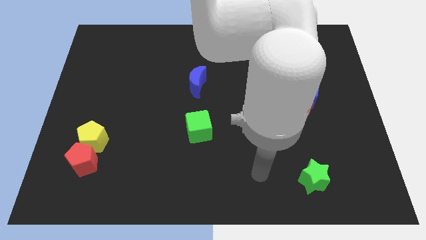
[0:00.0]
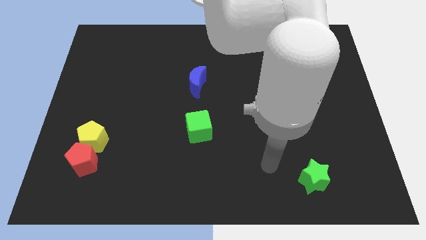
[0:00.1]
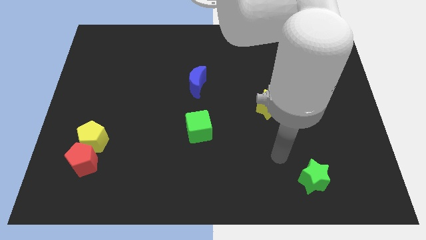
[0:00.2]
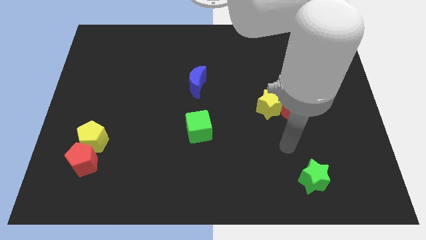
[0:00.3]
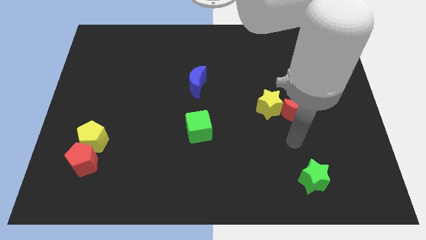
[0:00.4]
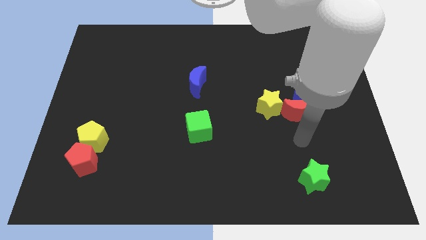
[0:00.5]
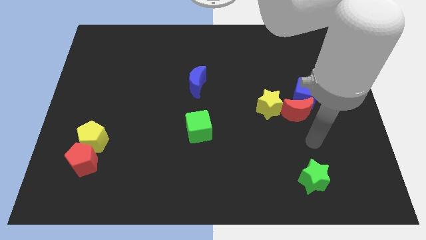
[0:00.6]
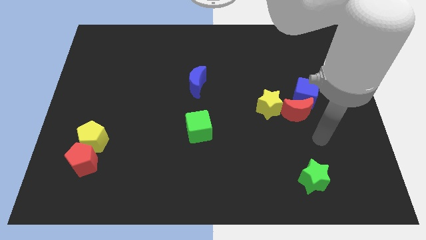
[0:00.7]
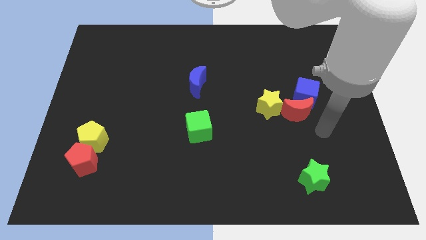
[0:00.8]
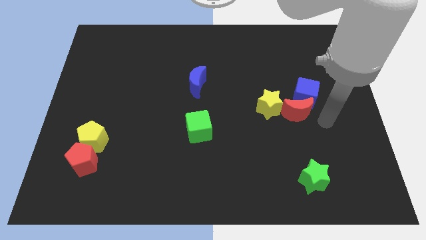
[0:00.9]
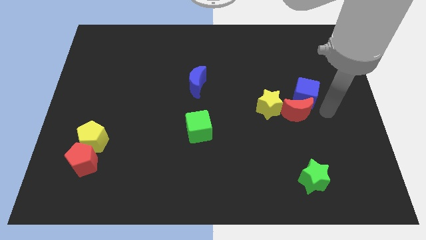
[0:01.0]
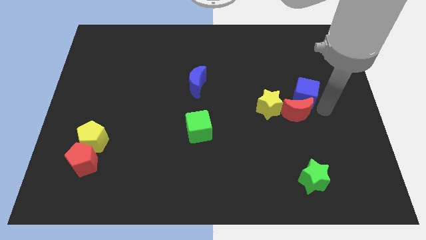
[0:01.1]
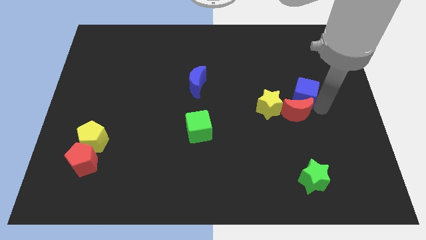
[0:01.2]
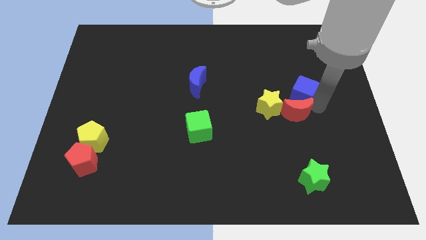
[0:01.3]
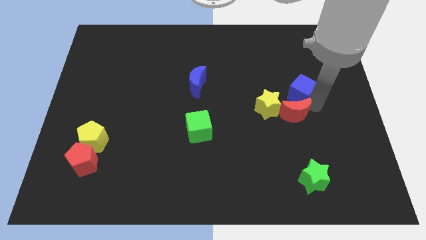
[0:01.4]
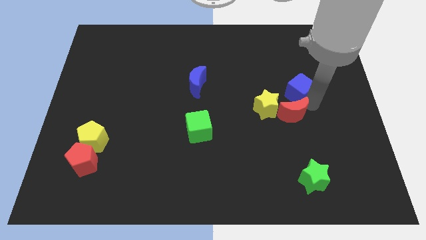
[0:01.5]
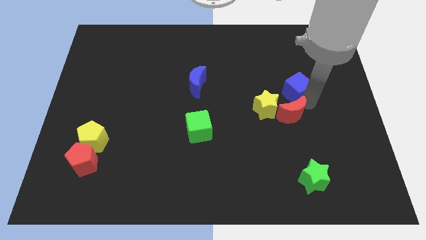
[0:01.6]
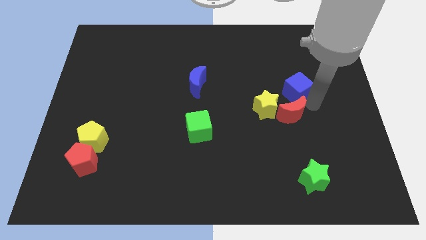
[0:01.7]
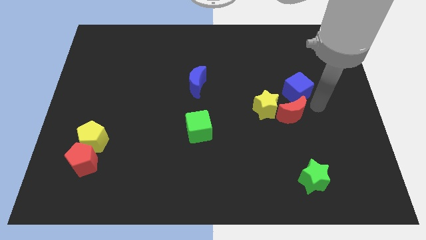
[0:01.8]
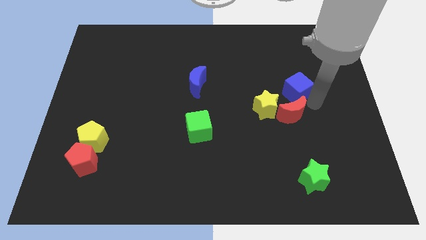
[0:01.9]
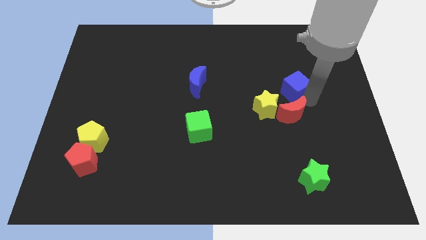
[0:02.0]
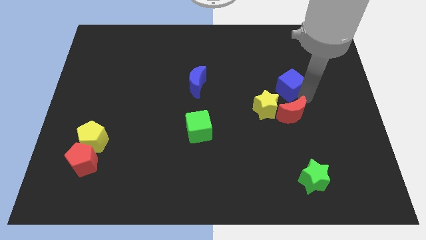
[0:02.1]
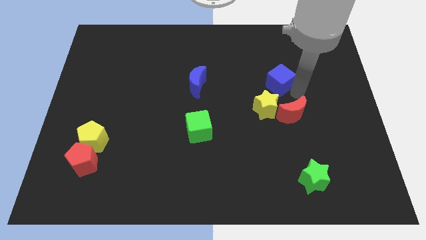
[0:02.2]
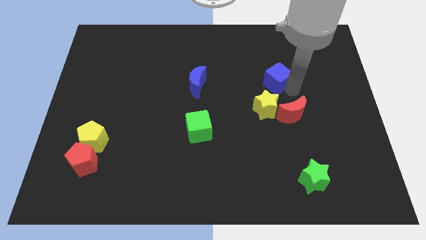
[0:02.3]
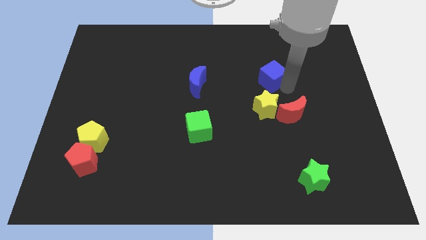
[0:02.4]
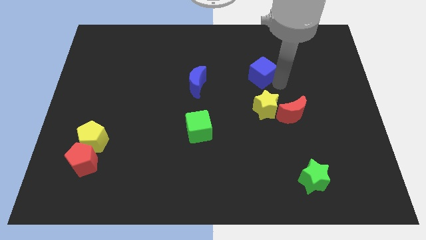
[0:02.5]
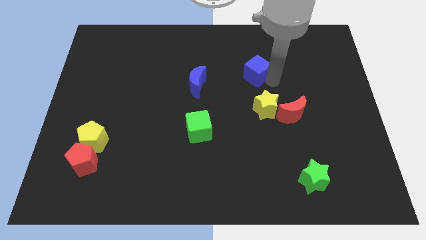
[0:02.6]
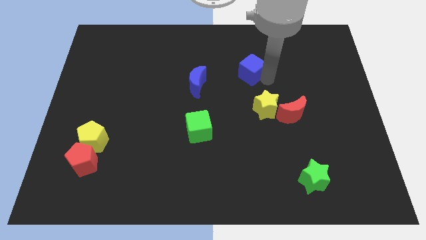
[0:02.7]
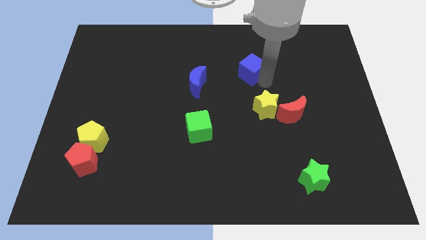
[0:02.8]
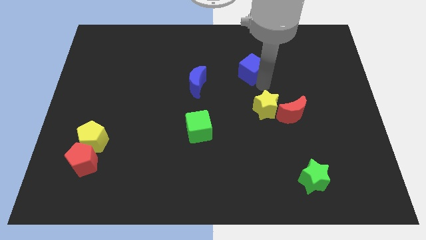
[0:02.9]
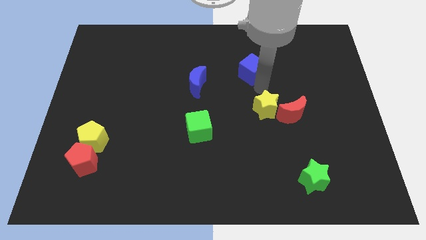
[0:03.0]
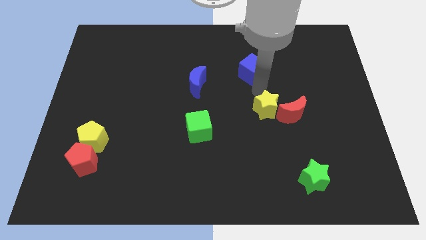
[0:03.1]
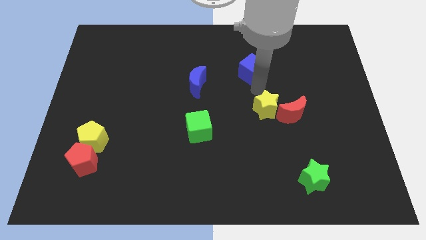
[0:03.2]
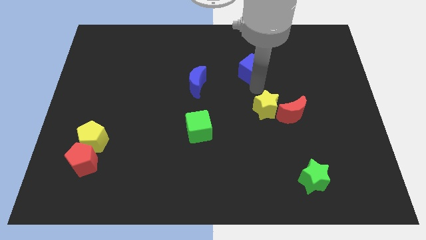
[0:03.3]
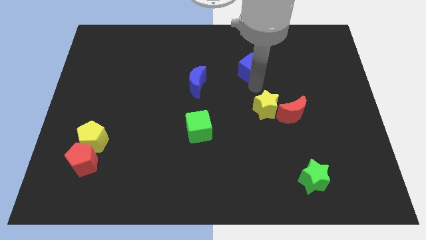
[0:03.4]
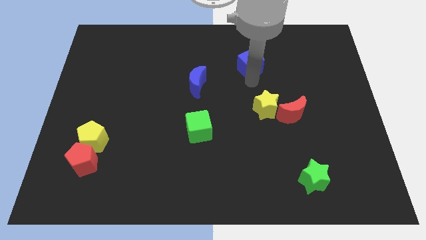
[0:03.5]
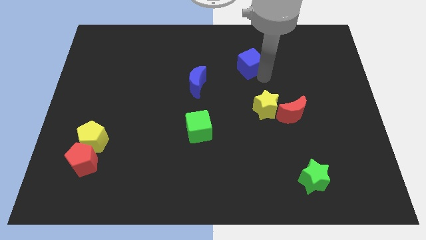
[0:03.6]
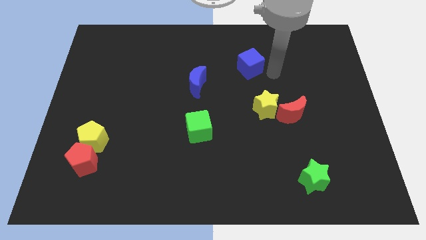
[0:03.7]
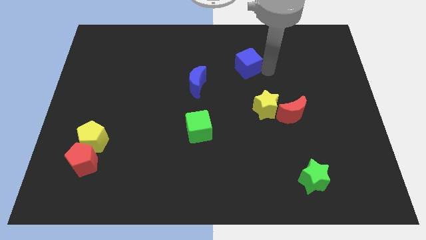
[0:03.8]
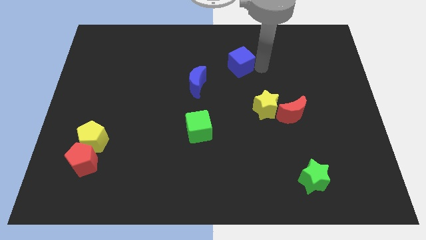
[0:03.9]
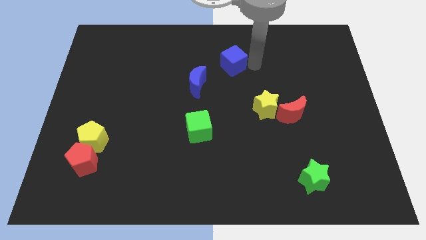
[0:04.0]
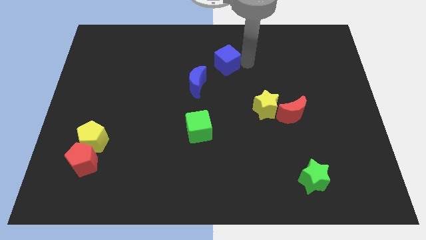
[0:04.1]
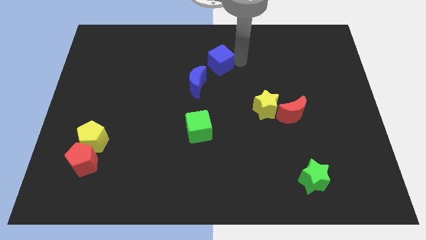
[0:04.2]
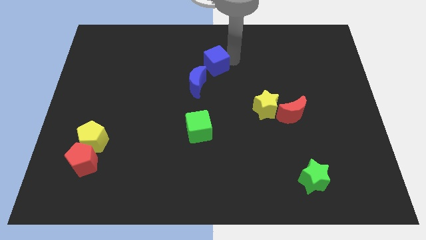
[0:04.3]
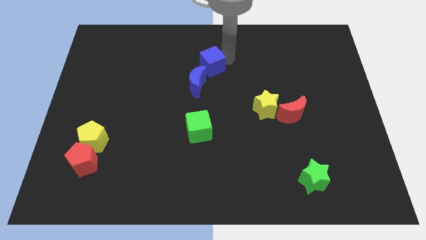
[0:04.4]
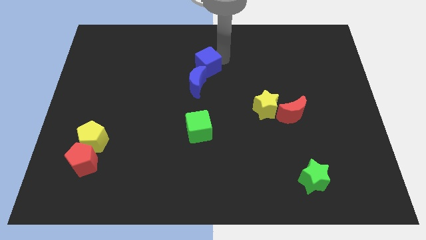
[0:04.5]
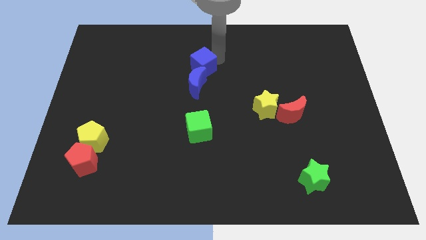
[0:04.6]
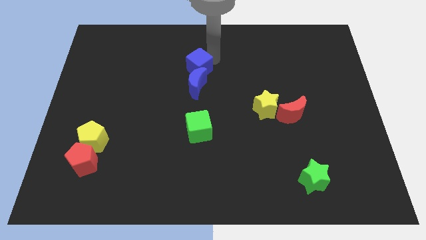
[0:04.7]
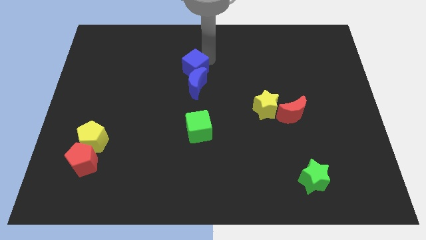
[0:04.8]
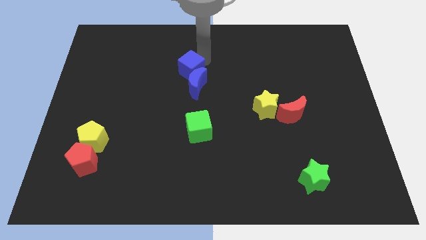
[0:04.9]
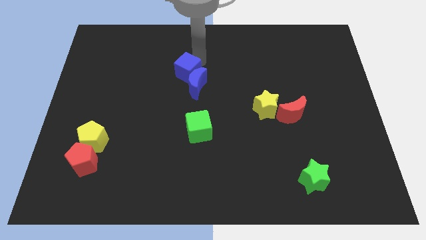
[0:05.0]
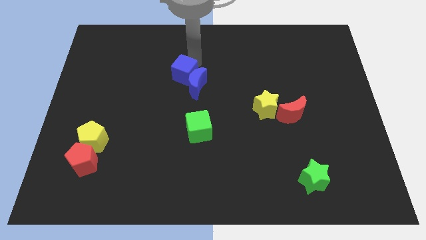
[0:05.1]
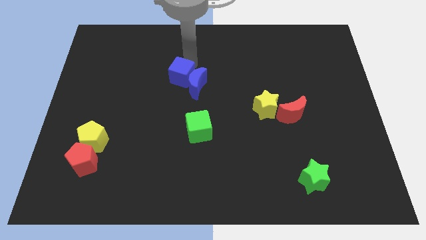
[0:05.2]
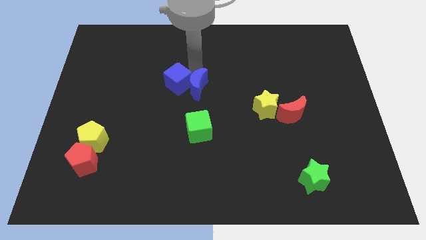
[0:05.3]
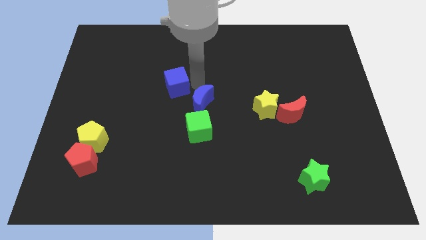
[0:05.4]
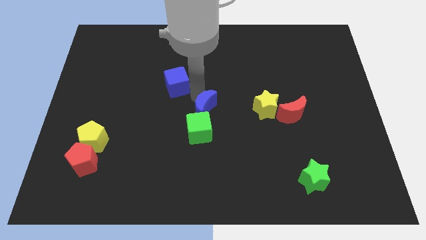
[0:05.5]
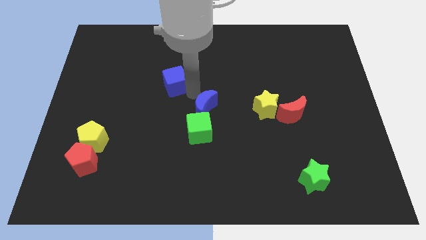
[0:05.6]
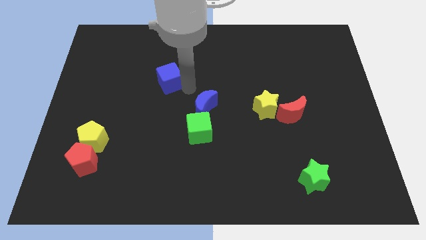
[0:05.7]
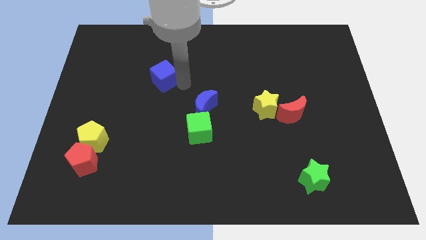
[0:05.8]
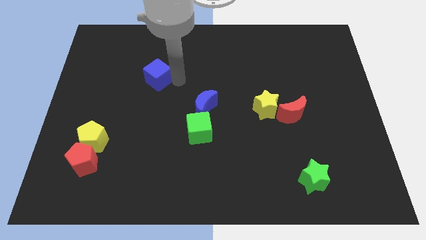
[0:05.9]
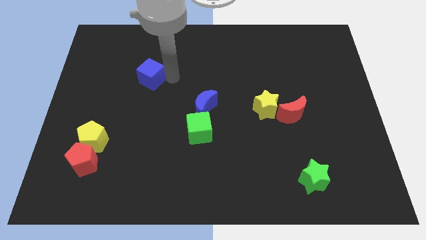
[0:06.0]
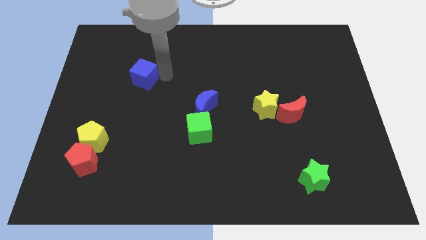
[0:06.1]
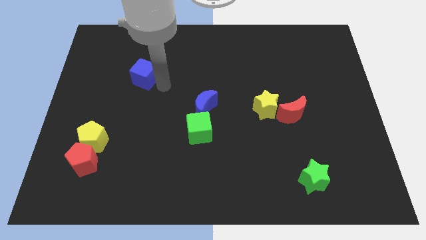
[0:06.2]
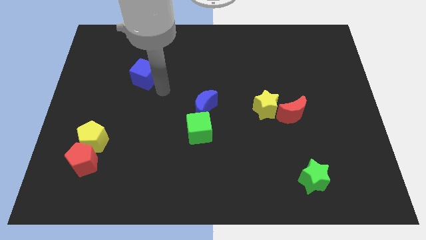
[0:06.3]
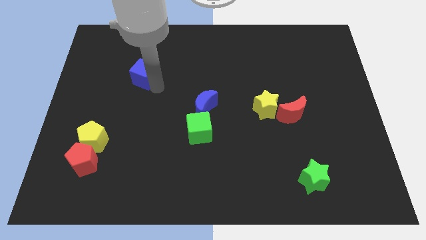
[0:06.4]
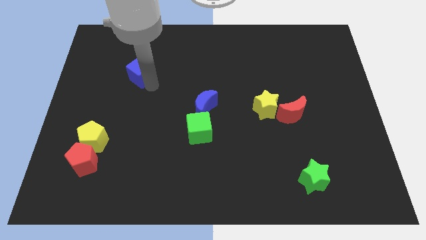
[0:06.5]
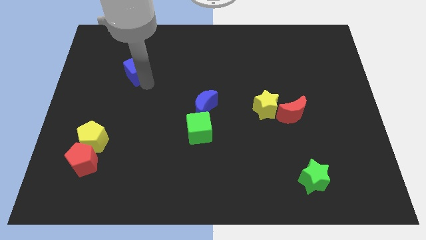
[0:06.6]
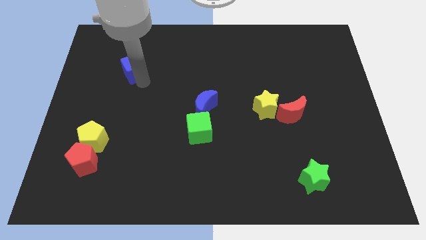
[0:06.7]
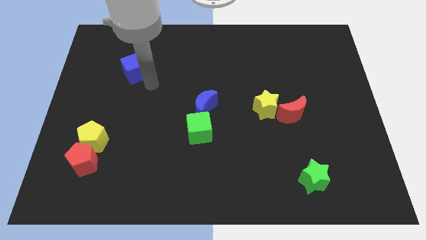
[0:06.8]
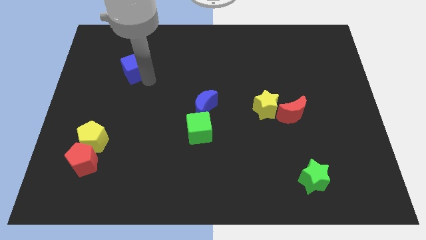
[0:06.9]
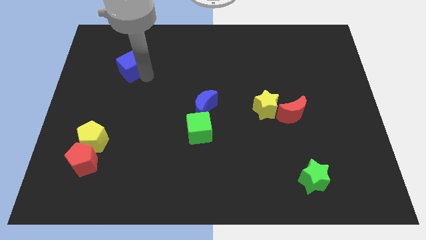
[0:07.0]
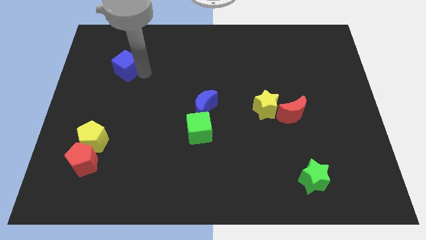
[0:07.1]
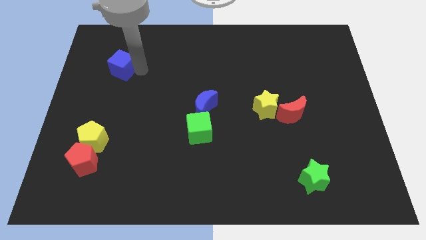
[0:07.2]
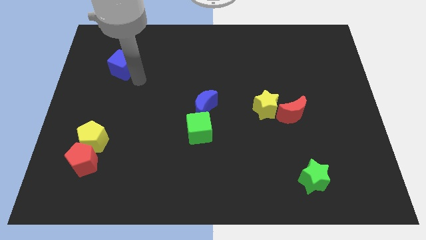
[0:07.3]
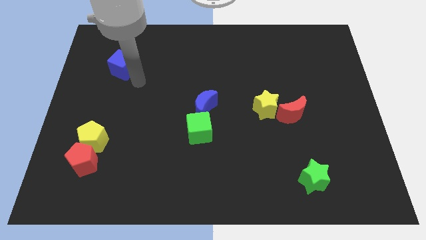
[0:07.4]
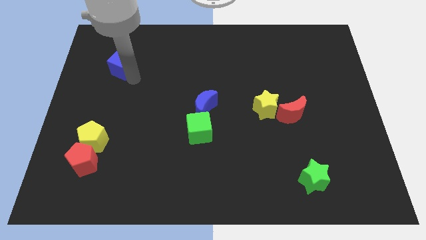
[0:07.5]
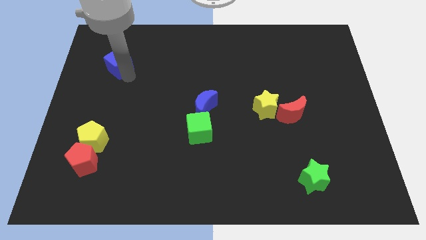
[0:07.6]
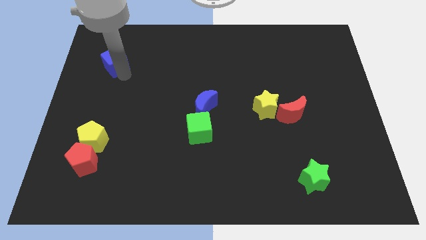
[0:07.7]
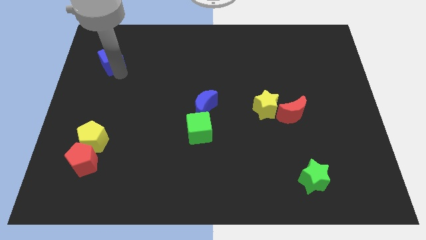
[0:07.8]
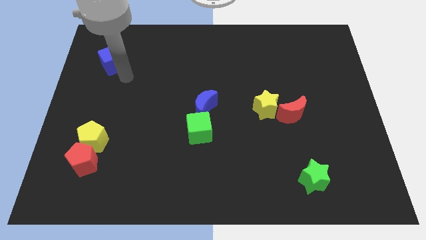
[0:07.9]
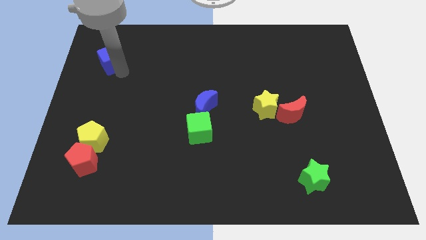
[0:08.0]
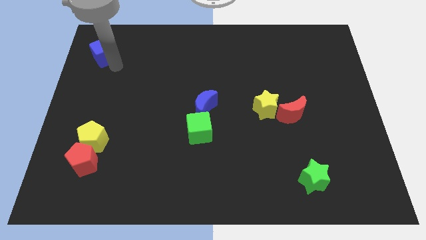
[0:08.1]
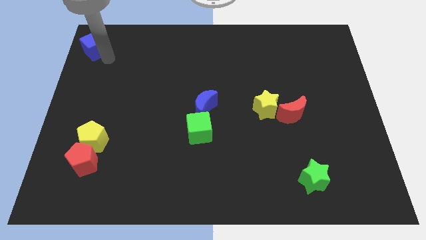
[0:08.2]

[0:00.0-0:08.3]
slide the blue cube to the top left of the board
